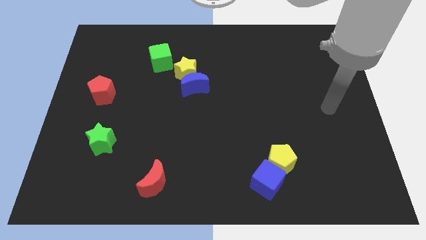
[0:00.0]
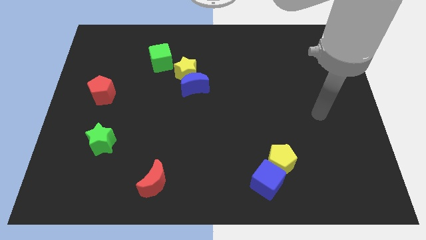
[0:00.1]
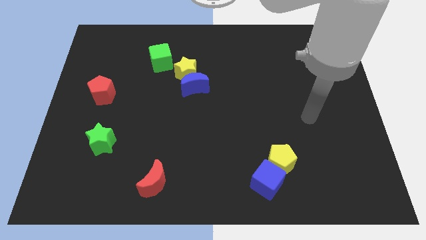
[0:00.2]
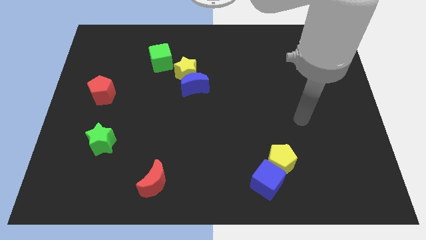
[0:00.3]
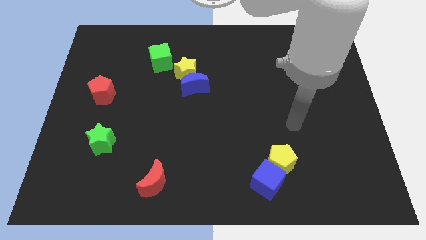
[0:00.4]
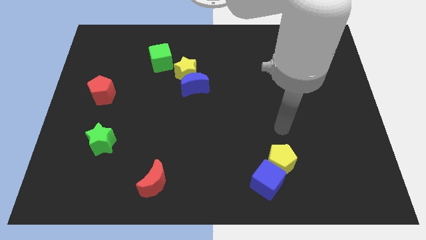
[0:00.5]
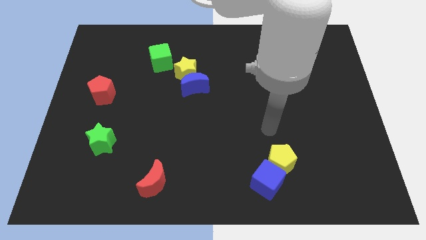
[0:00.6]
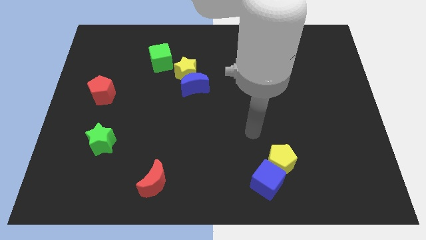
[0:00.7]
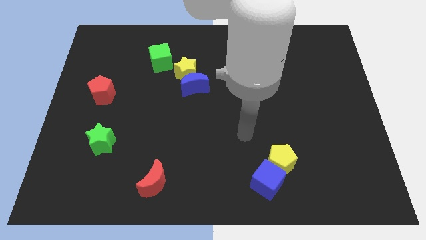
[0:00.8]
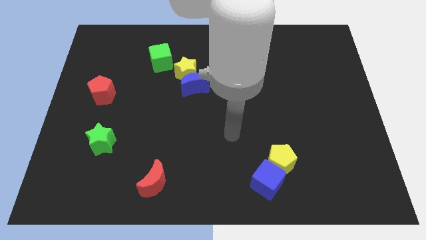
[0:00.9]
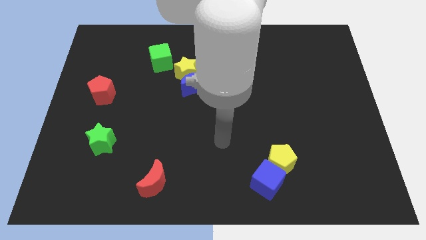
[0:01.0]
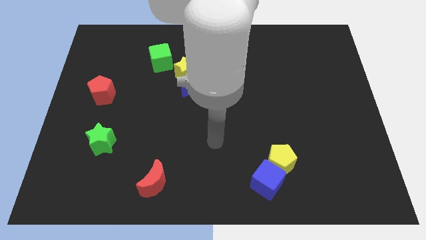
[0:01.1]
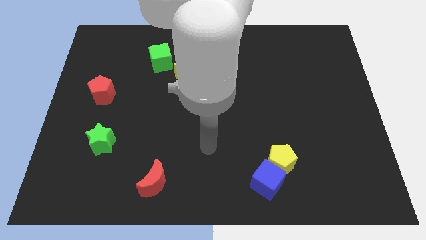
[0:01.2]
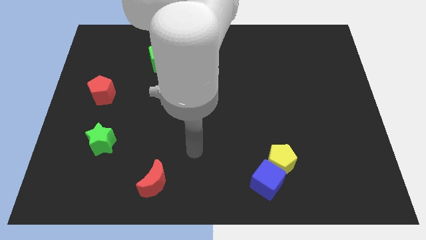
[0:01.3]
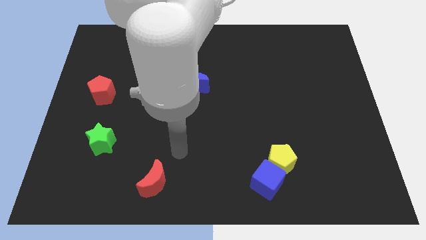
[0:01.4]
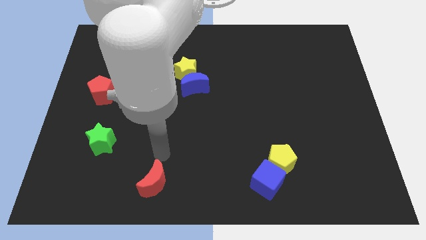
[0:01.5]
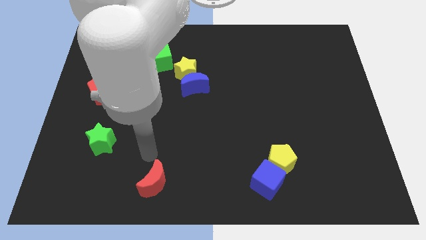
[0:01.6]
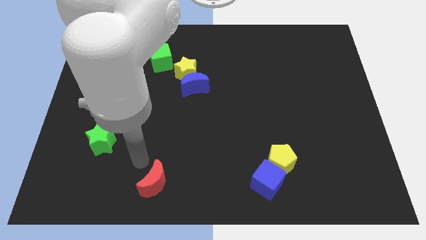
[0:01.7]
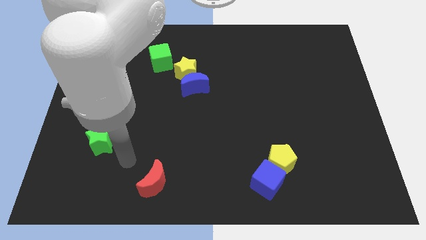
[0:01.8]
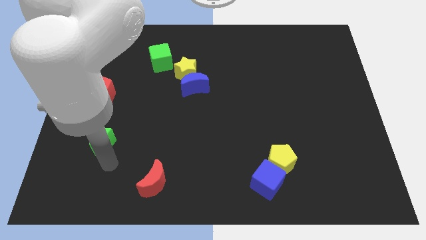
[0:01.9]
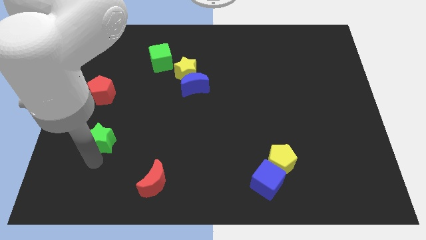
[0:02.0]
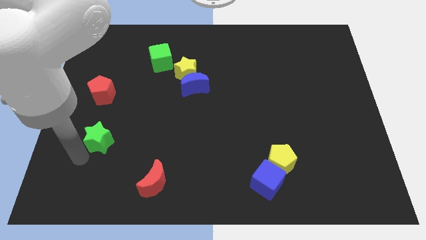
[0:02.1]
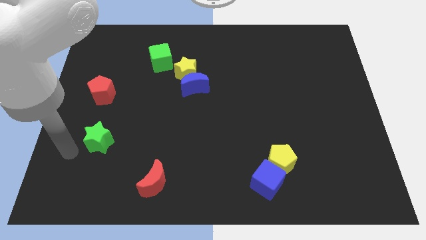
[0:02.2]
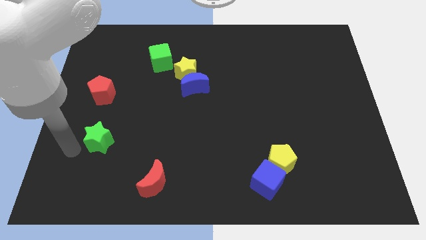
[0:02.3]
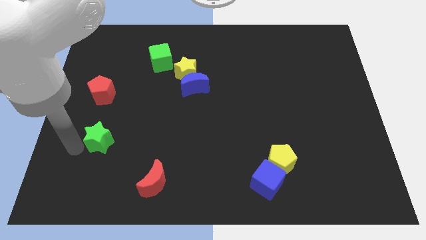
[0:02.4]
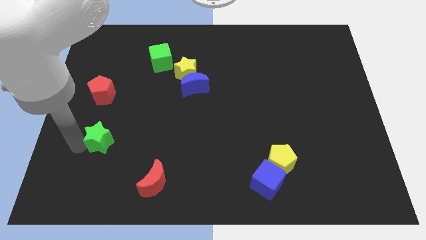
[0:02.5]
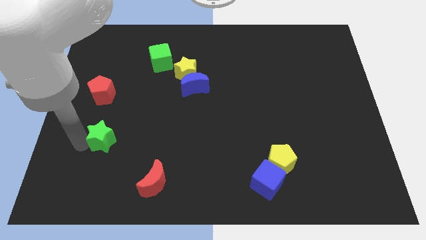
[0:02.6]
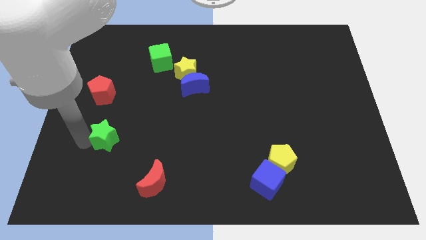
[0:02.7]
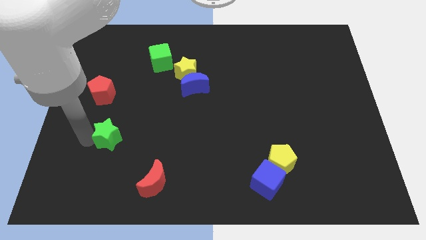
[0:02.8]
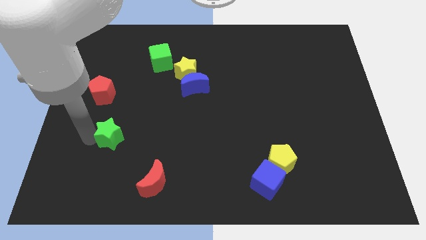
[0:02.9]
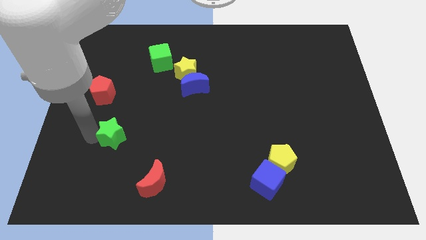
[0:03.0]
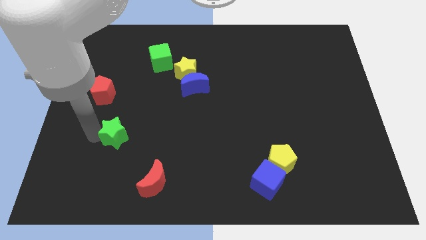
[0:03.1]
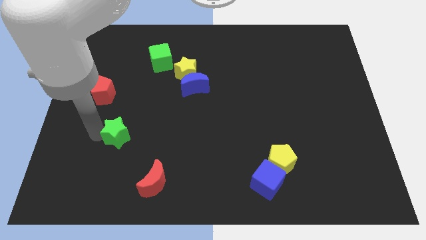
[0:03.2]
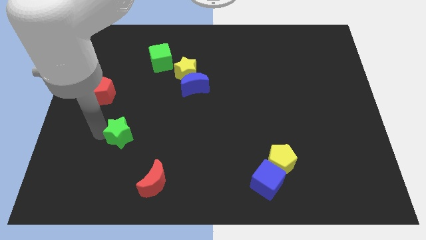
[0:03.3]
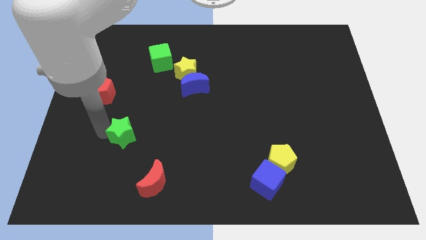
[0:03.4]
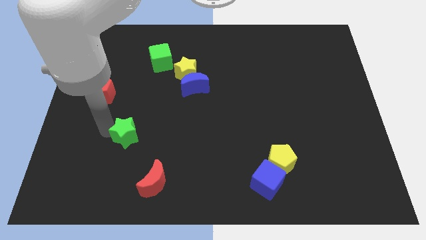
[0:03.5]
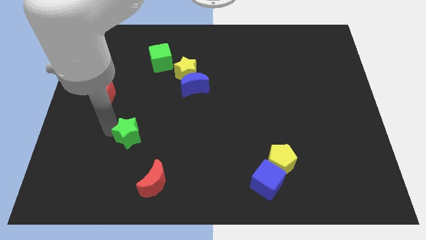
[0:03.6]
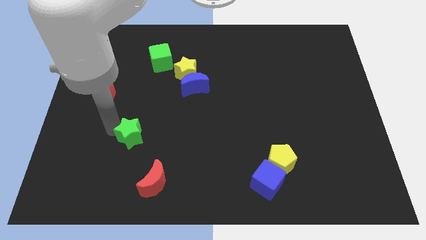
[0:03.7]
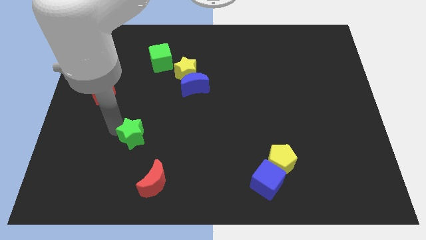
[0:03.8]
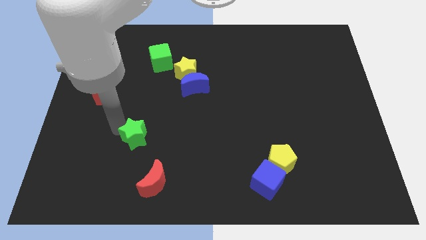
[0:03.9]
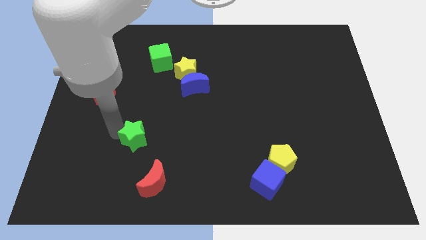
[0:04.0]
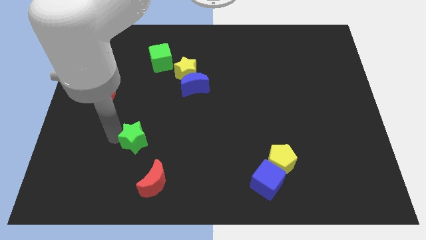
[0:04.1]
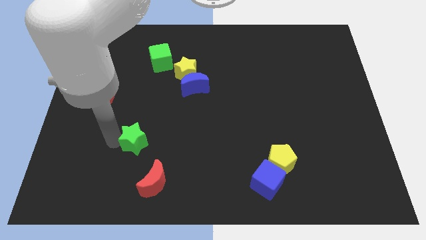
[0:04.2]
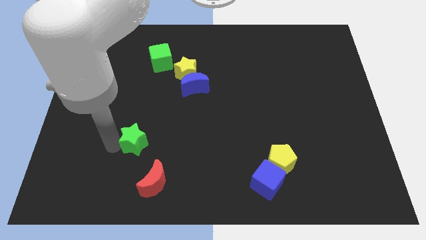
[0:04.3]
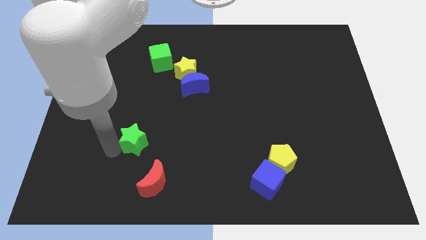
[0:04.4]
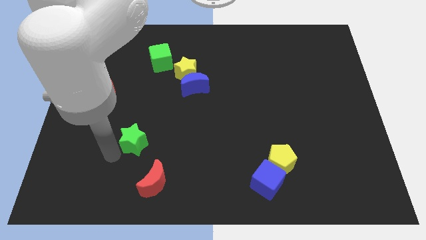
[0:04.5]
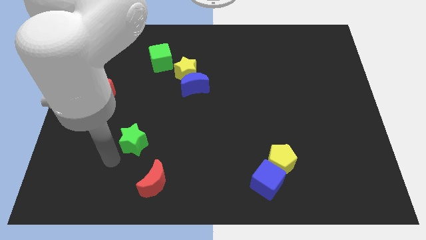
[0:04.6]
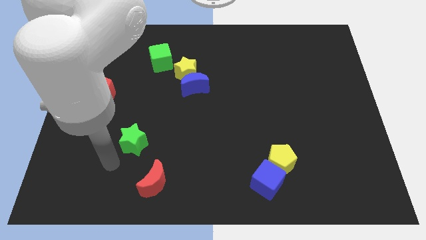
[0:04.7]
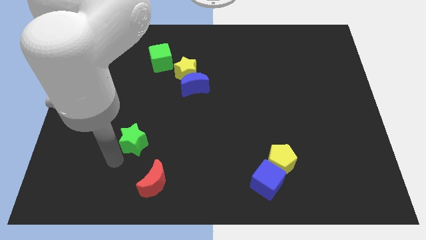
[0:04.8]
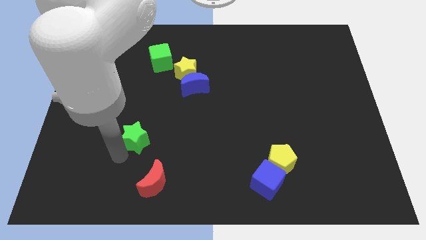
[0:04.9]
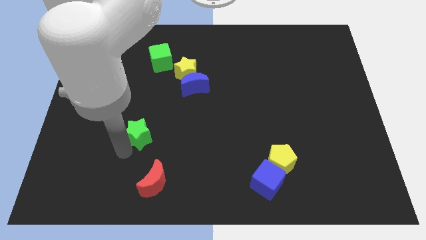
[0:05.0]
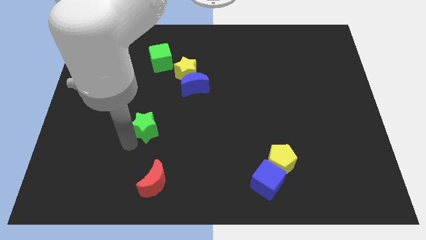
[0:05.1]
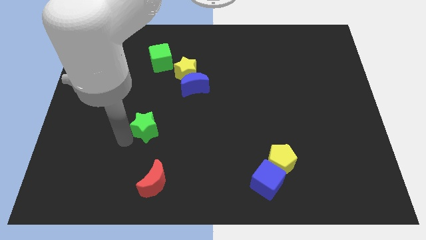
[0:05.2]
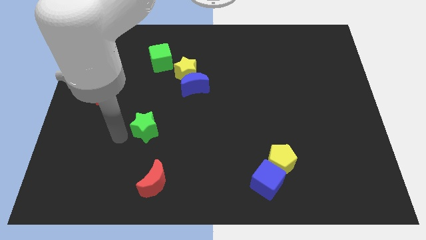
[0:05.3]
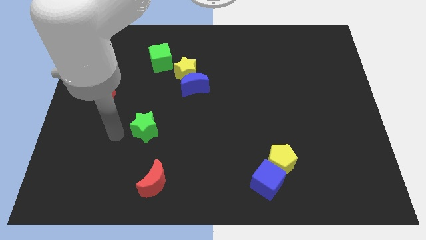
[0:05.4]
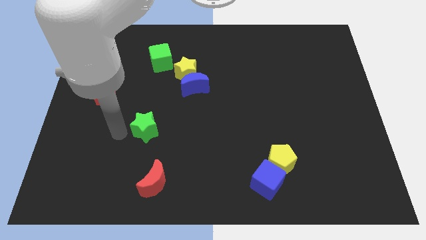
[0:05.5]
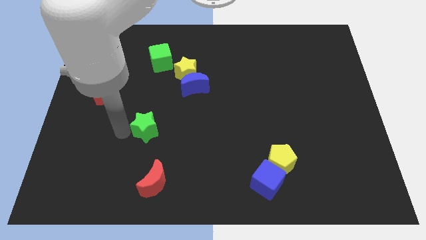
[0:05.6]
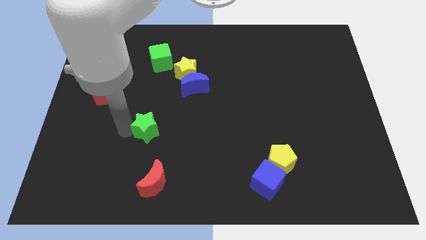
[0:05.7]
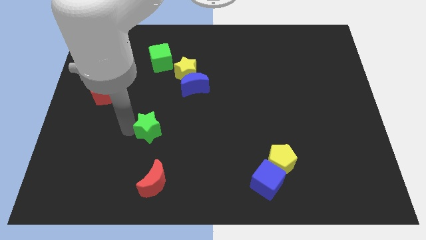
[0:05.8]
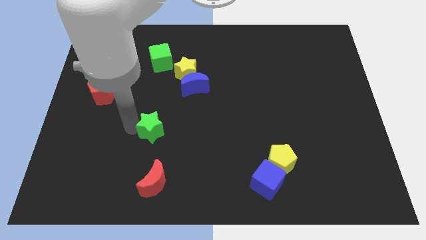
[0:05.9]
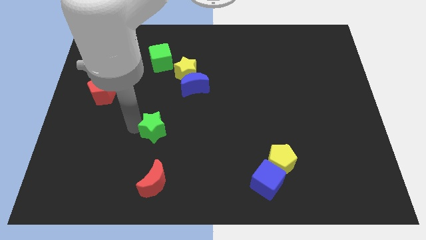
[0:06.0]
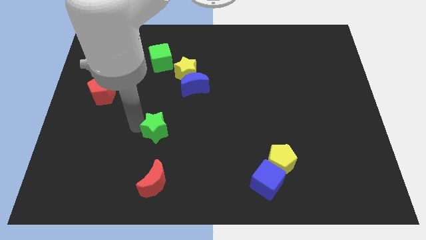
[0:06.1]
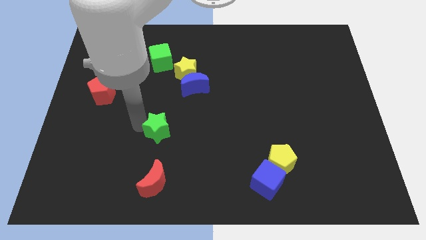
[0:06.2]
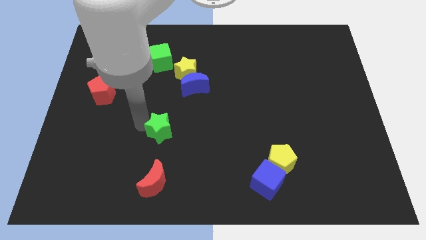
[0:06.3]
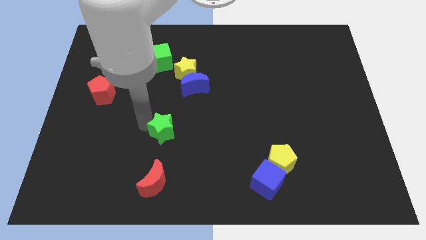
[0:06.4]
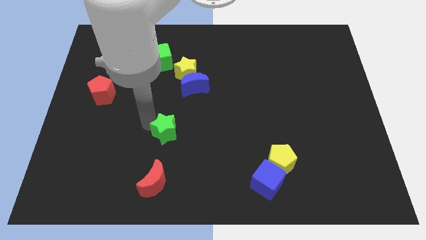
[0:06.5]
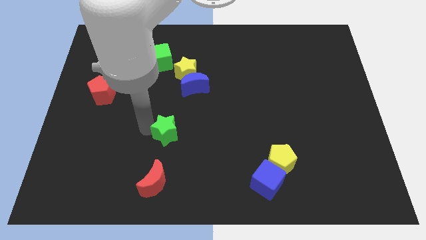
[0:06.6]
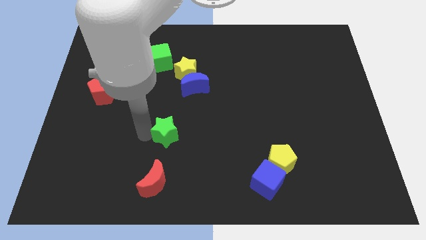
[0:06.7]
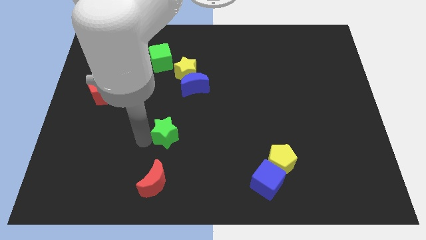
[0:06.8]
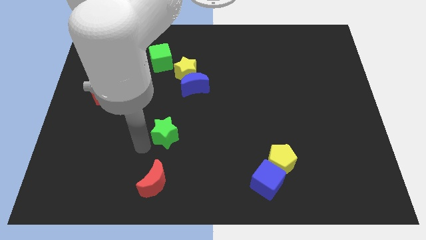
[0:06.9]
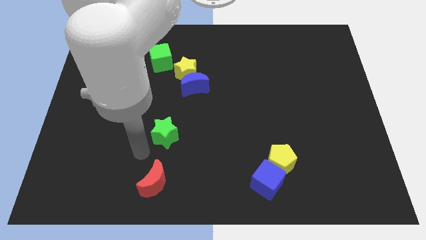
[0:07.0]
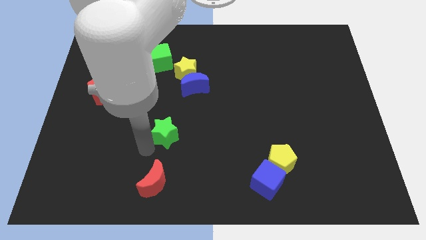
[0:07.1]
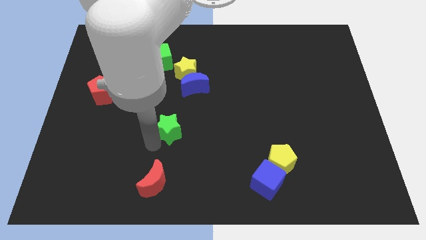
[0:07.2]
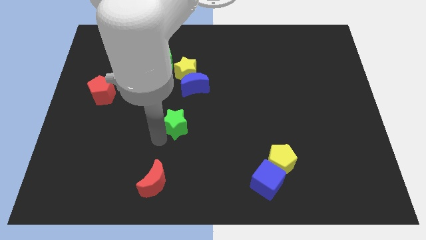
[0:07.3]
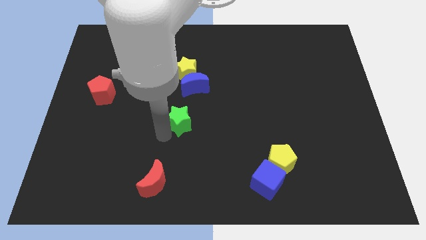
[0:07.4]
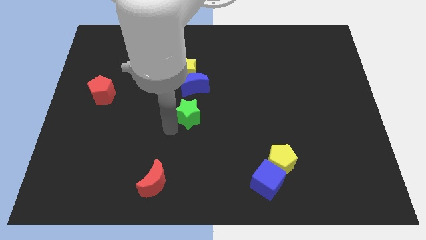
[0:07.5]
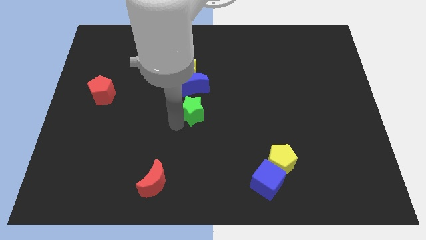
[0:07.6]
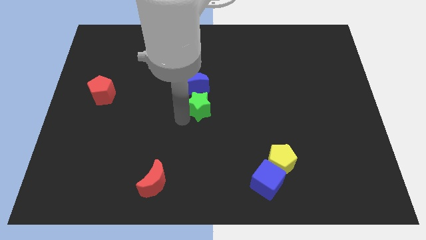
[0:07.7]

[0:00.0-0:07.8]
push the green star to the bottom right side of the blue moon
